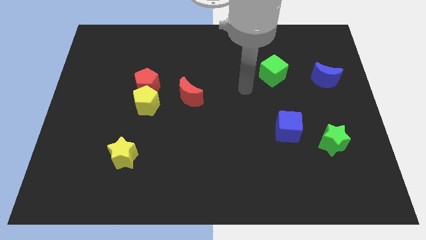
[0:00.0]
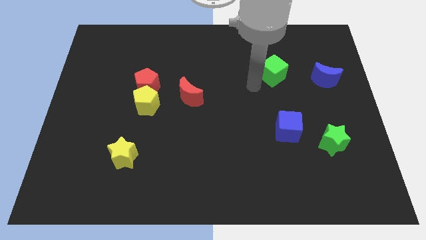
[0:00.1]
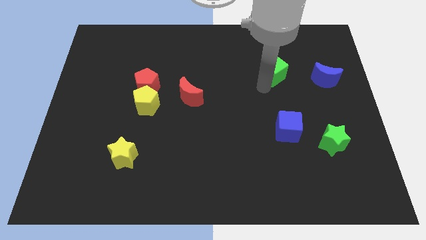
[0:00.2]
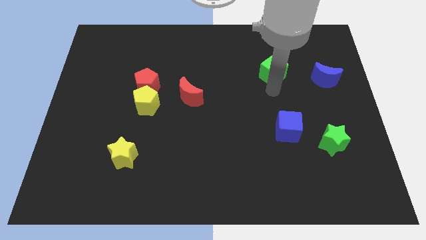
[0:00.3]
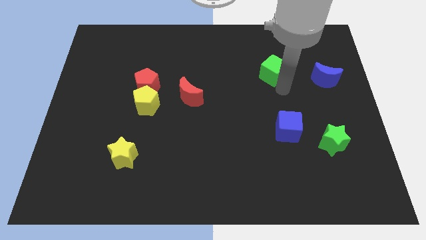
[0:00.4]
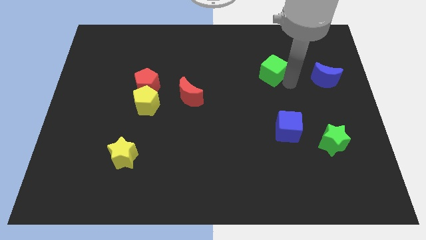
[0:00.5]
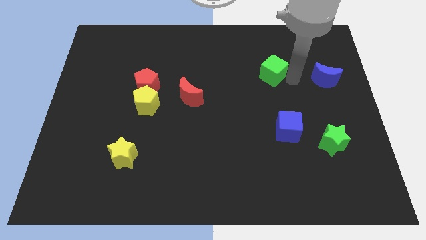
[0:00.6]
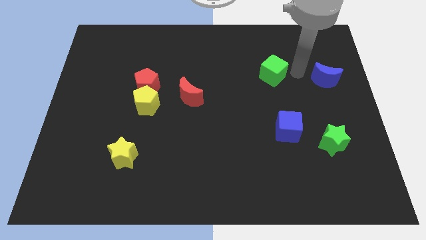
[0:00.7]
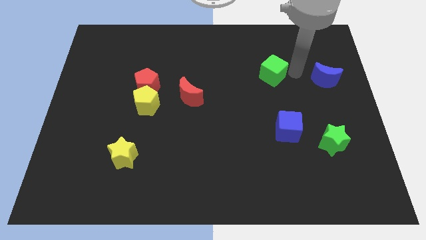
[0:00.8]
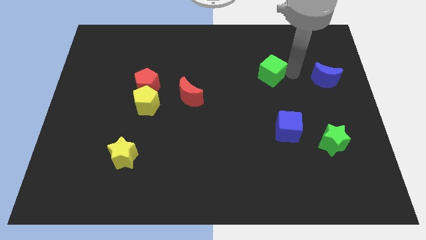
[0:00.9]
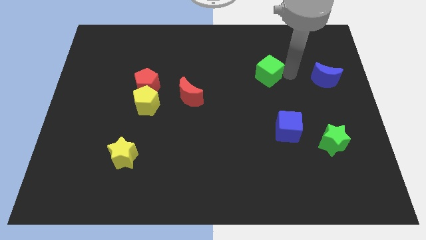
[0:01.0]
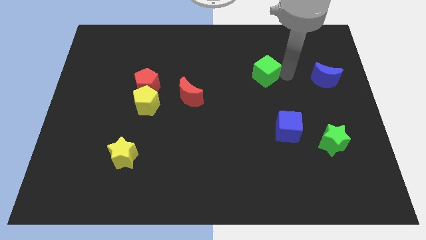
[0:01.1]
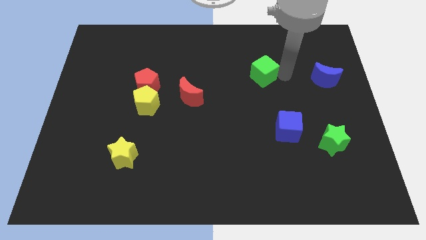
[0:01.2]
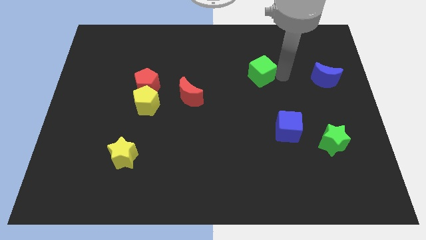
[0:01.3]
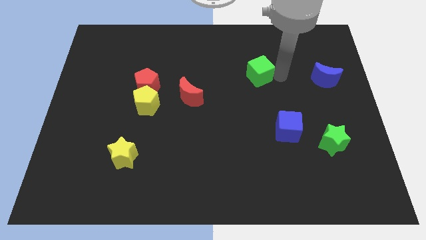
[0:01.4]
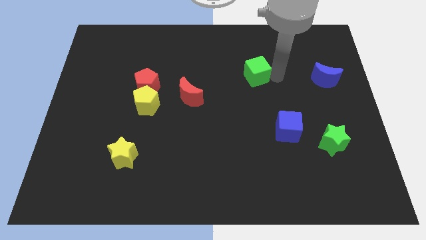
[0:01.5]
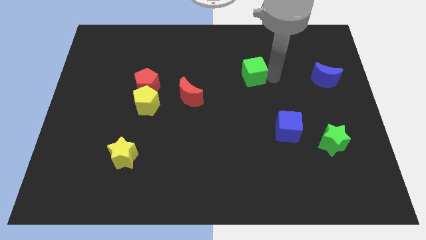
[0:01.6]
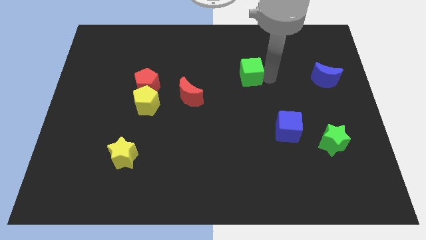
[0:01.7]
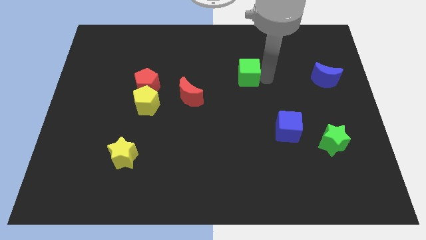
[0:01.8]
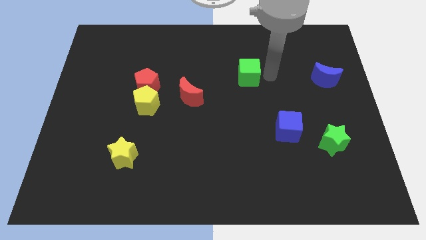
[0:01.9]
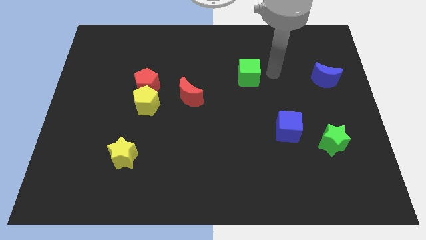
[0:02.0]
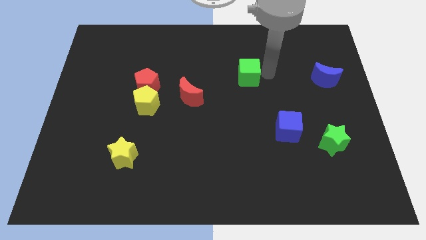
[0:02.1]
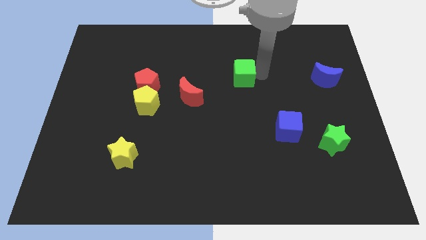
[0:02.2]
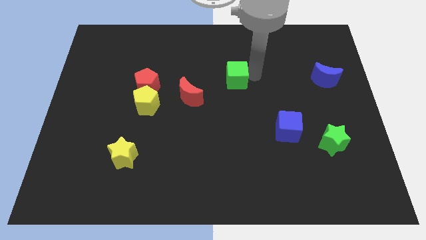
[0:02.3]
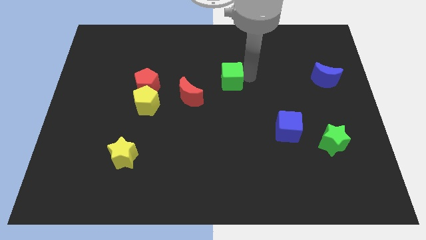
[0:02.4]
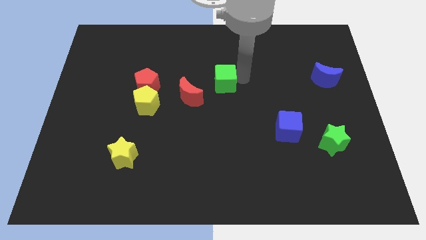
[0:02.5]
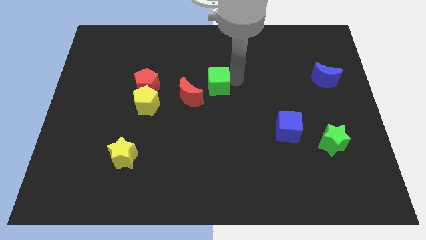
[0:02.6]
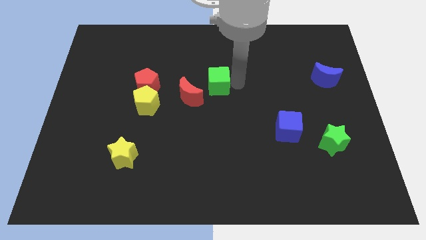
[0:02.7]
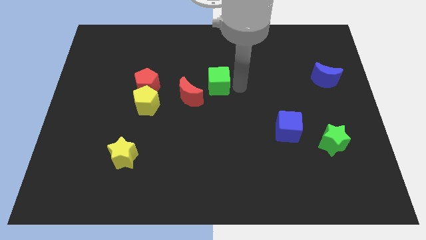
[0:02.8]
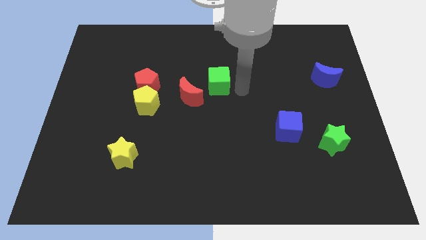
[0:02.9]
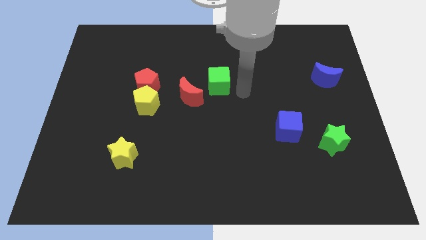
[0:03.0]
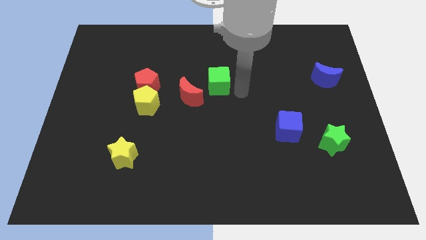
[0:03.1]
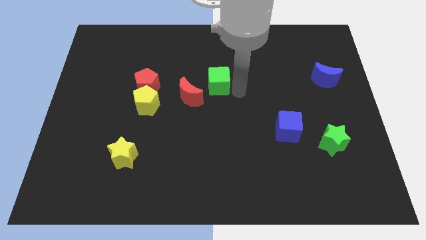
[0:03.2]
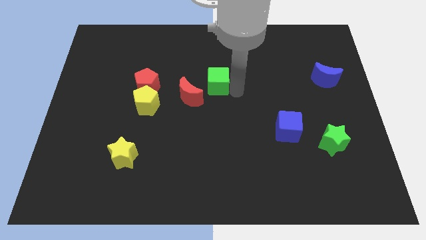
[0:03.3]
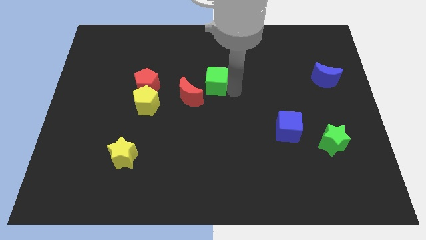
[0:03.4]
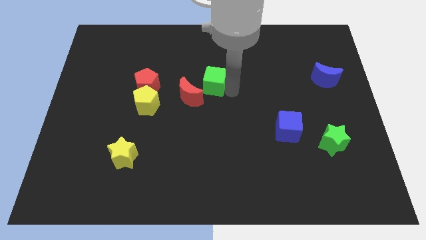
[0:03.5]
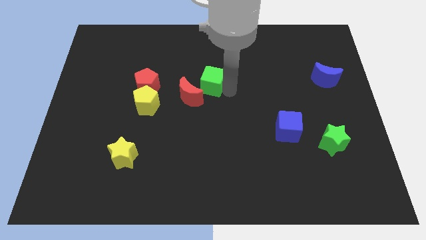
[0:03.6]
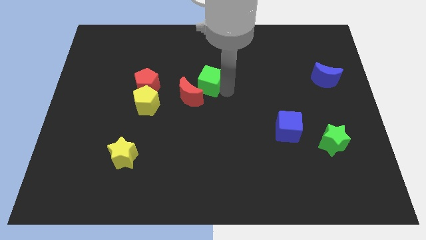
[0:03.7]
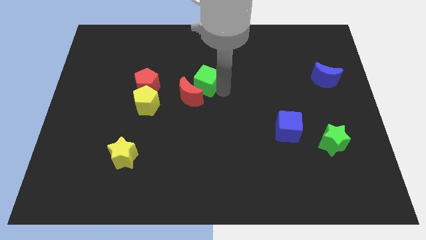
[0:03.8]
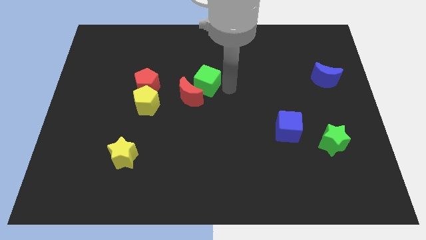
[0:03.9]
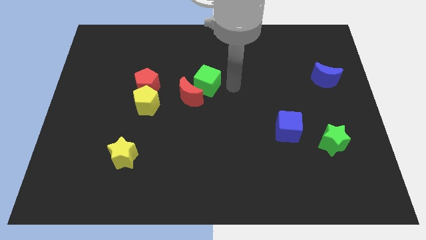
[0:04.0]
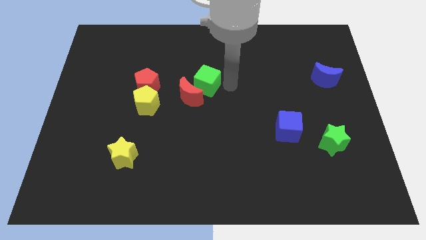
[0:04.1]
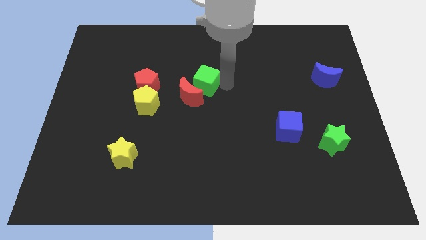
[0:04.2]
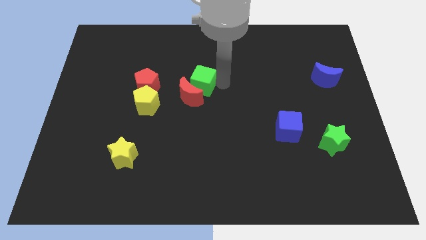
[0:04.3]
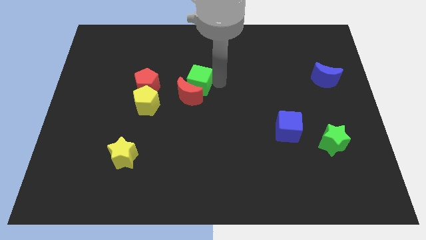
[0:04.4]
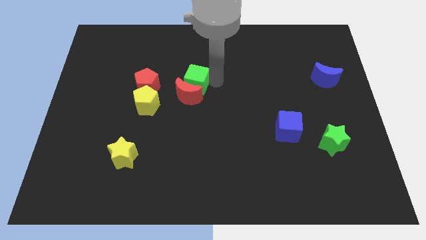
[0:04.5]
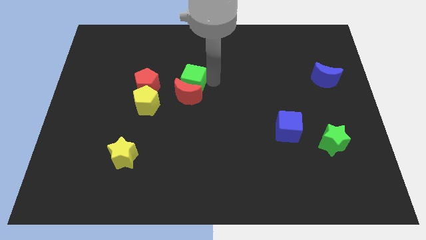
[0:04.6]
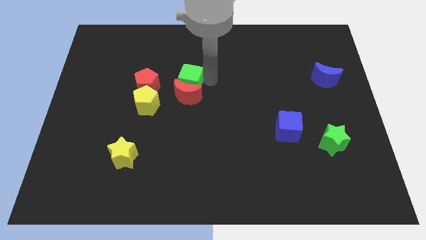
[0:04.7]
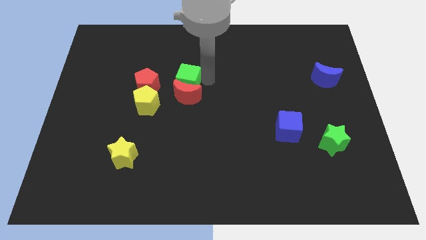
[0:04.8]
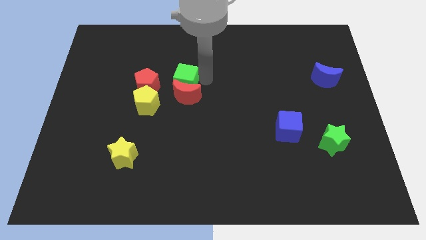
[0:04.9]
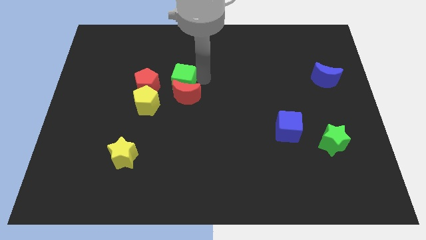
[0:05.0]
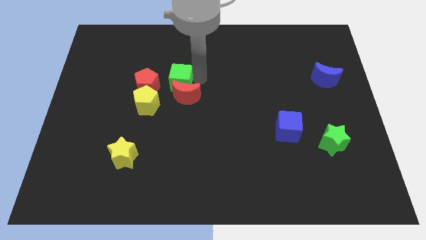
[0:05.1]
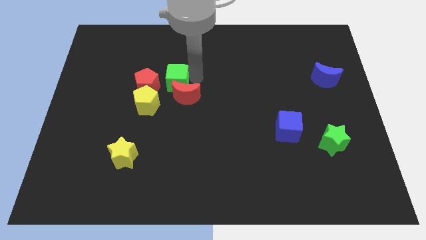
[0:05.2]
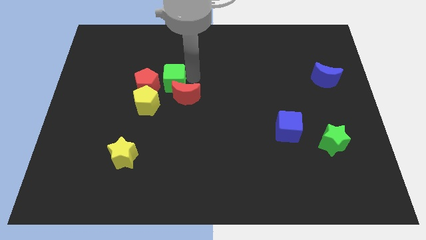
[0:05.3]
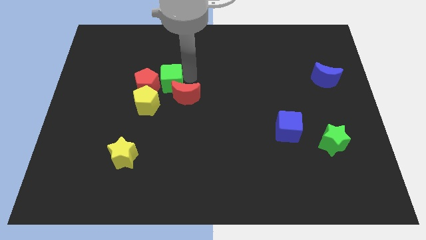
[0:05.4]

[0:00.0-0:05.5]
put the green cube towards the red pentagon

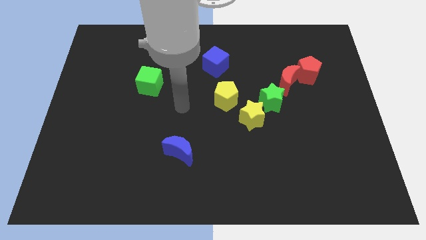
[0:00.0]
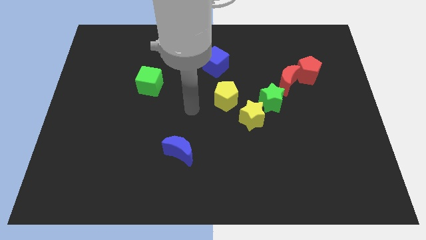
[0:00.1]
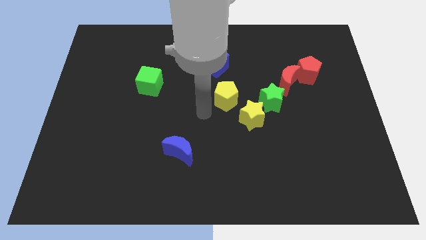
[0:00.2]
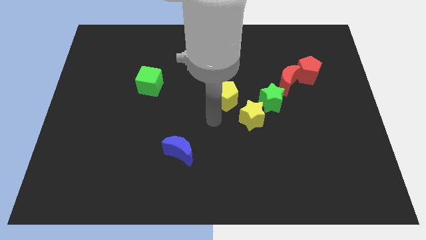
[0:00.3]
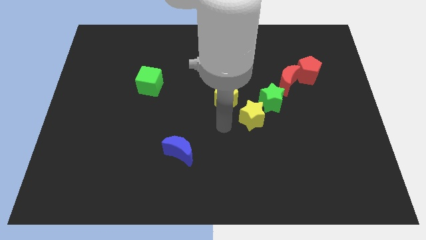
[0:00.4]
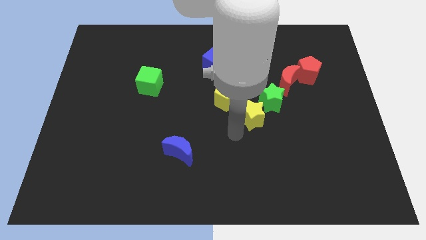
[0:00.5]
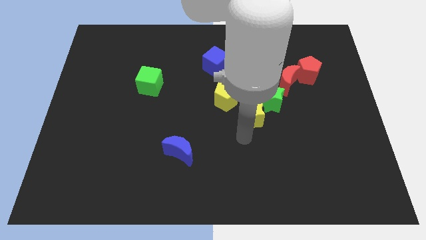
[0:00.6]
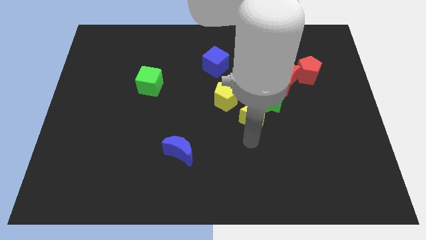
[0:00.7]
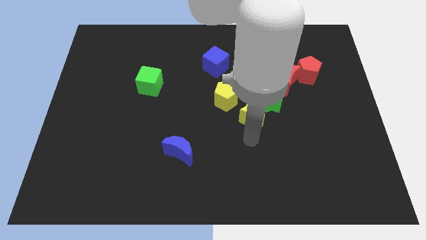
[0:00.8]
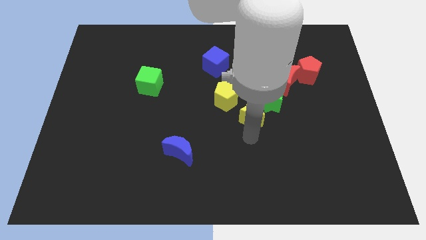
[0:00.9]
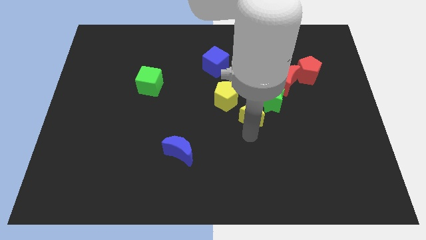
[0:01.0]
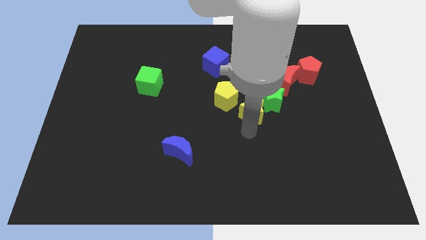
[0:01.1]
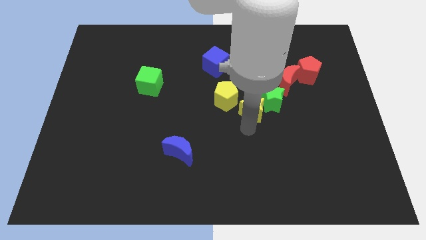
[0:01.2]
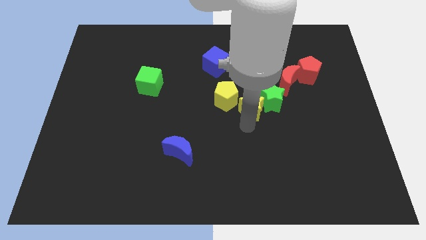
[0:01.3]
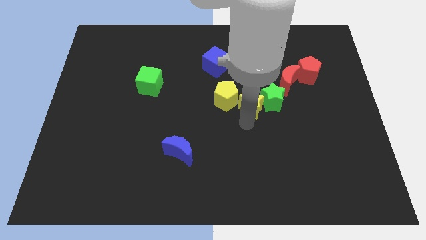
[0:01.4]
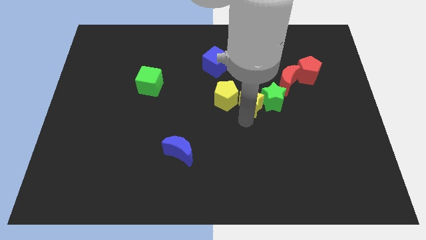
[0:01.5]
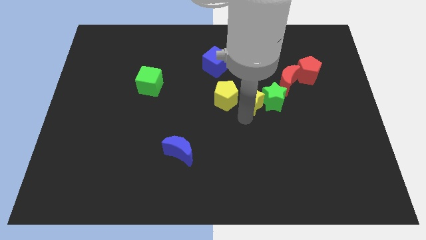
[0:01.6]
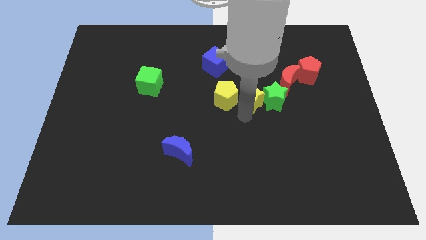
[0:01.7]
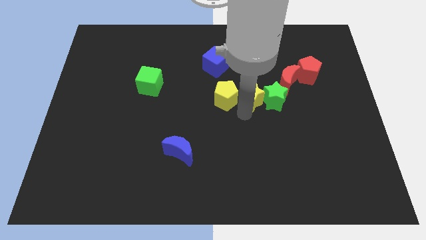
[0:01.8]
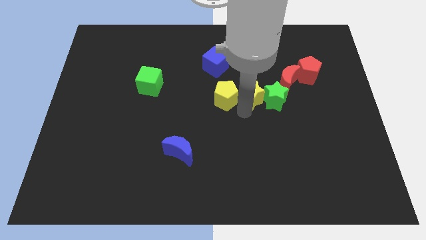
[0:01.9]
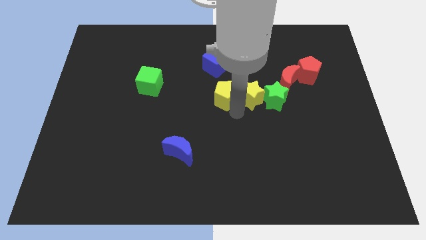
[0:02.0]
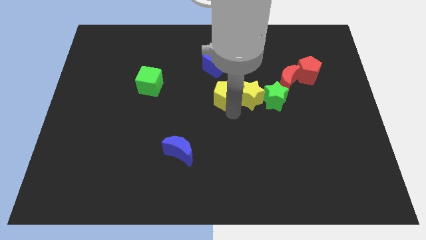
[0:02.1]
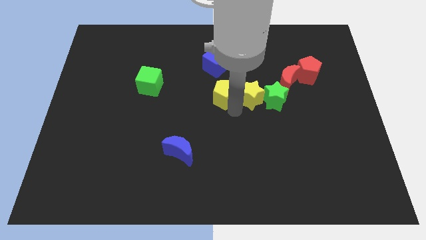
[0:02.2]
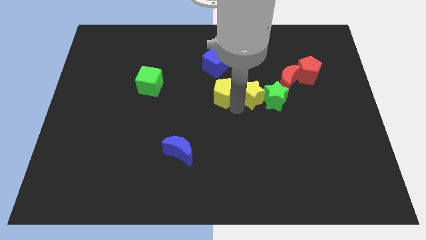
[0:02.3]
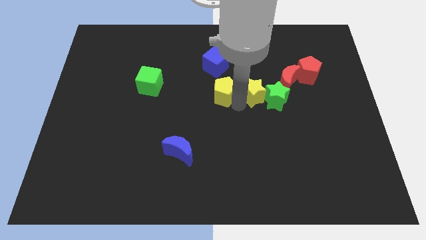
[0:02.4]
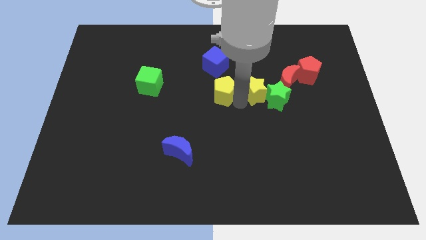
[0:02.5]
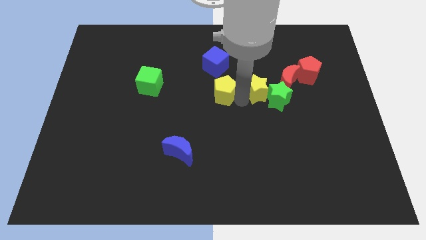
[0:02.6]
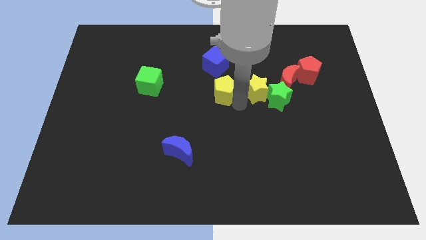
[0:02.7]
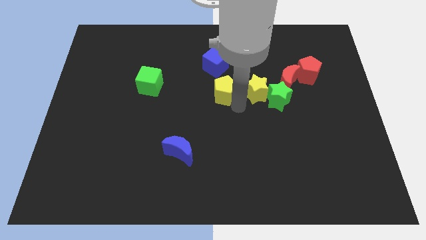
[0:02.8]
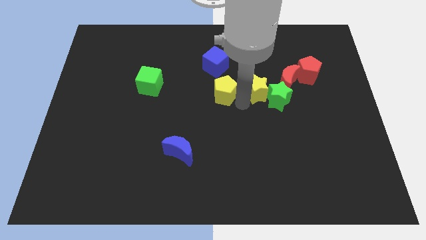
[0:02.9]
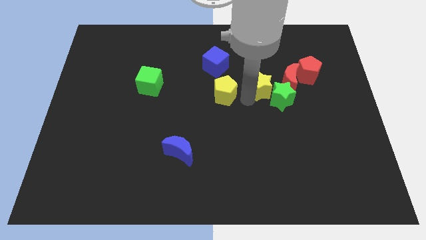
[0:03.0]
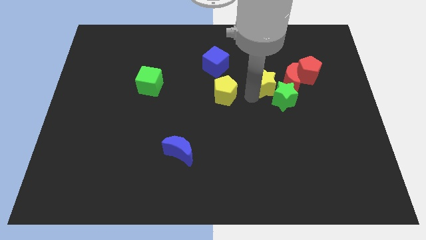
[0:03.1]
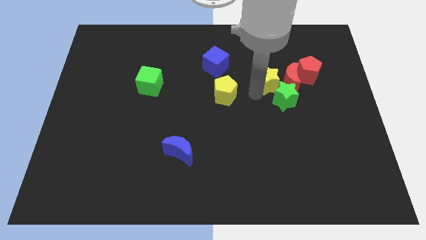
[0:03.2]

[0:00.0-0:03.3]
slide the yellow star to the red moon
